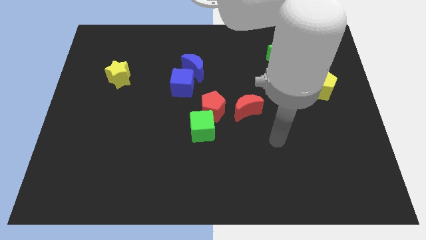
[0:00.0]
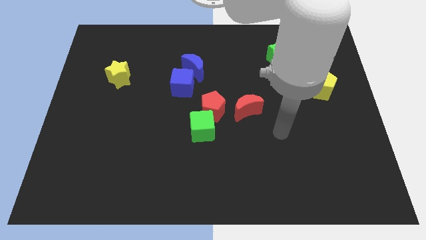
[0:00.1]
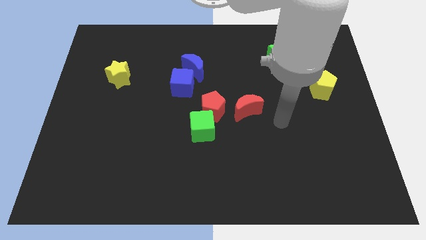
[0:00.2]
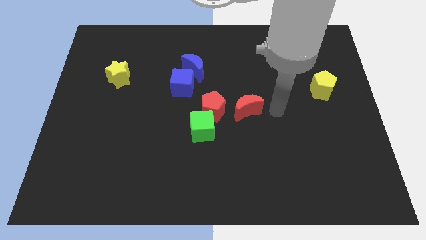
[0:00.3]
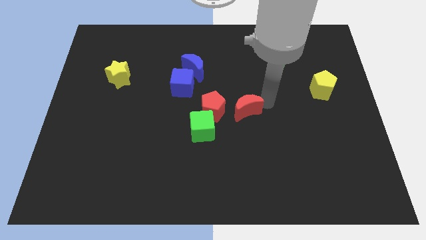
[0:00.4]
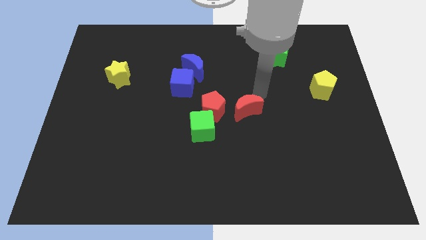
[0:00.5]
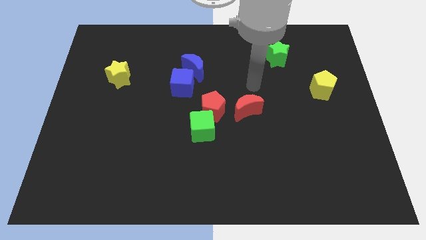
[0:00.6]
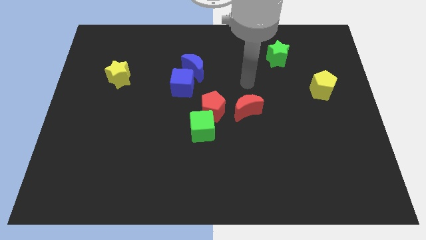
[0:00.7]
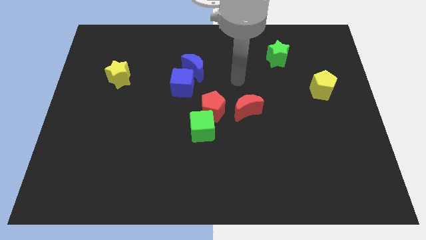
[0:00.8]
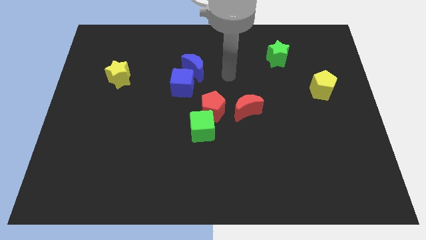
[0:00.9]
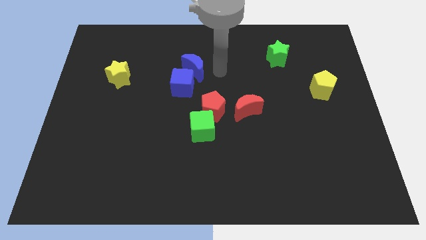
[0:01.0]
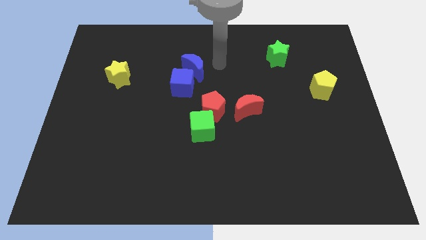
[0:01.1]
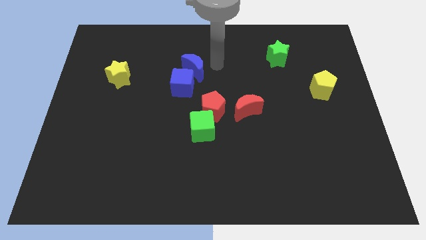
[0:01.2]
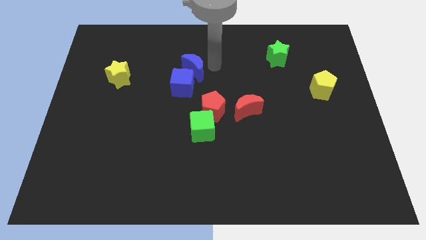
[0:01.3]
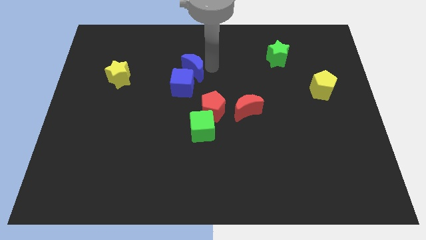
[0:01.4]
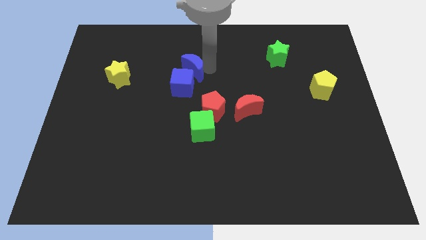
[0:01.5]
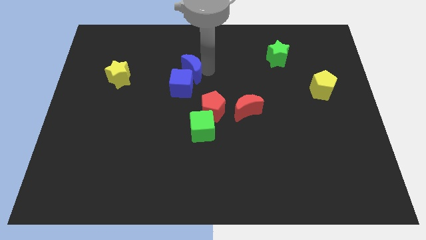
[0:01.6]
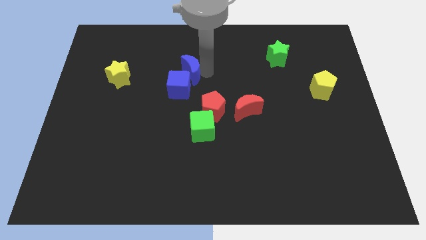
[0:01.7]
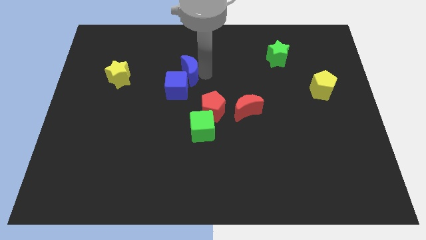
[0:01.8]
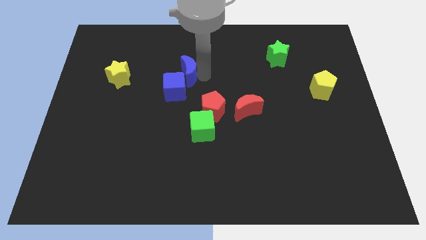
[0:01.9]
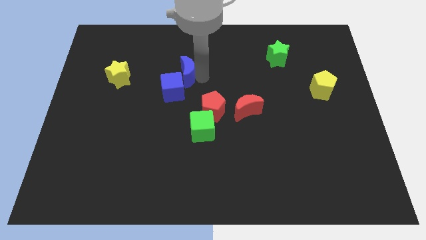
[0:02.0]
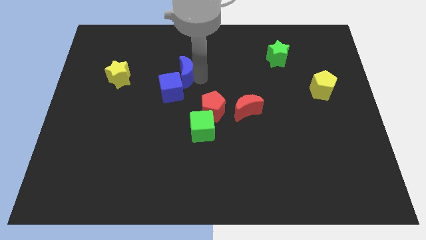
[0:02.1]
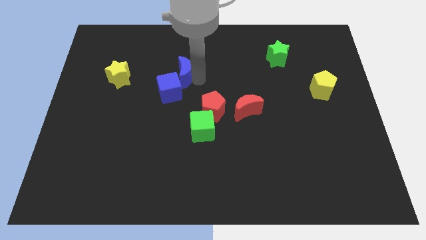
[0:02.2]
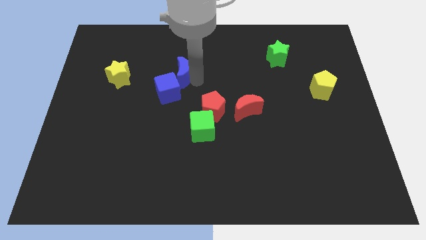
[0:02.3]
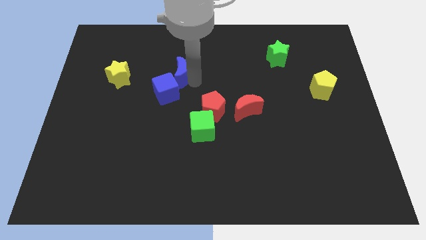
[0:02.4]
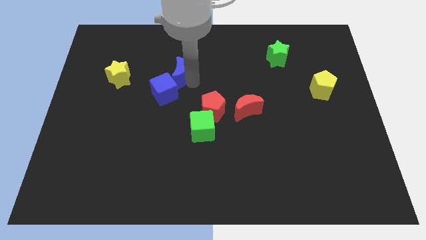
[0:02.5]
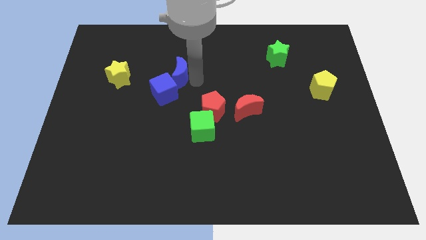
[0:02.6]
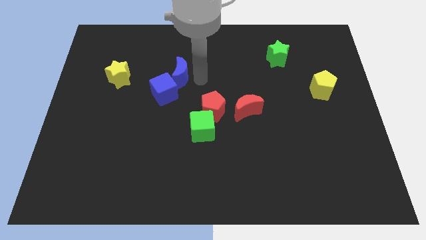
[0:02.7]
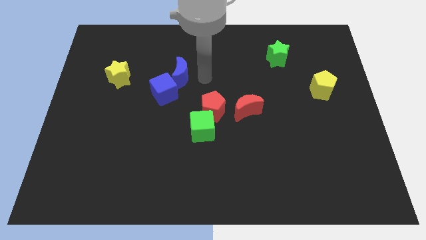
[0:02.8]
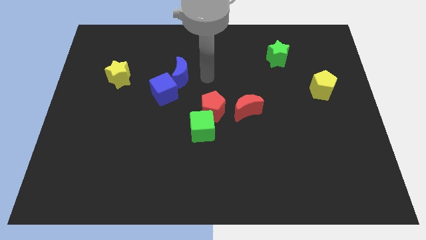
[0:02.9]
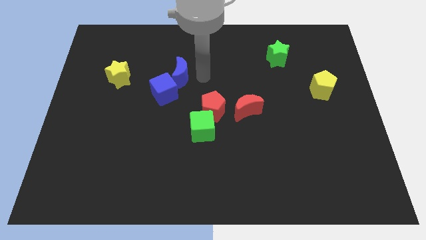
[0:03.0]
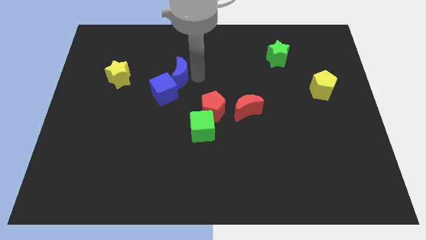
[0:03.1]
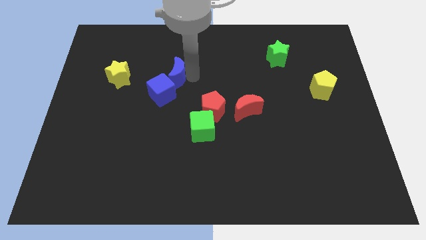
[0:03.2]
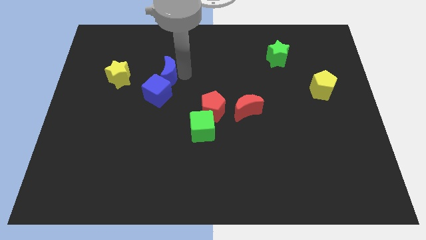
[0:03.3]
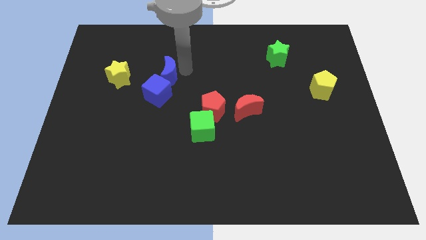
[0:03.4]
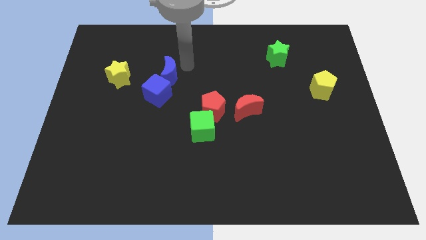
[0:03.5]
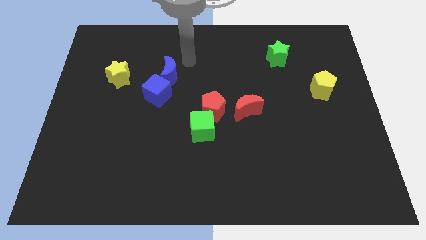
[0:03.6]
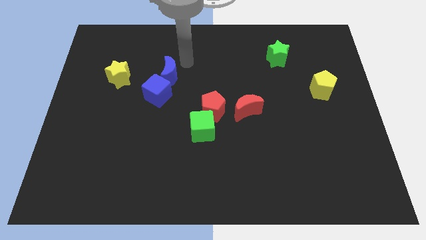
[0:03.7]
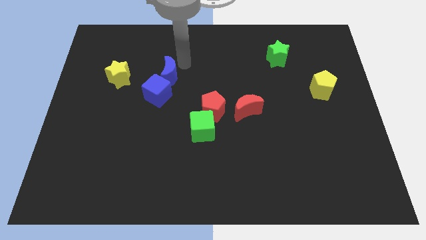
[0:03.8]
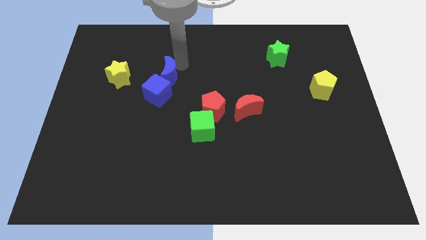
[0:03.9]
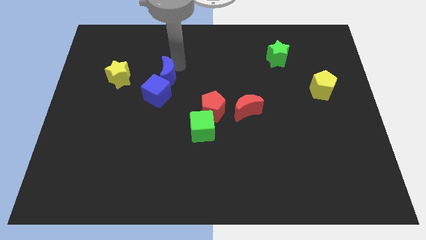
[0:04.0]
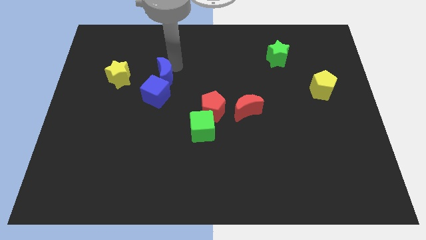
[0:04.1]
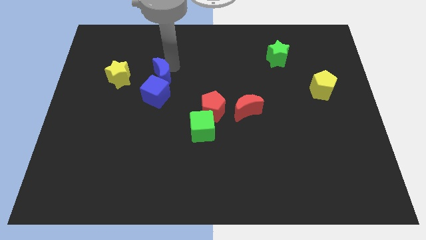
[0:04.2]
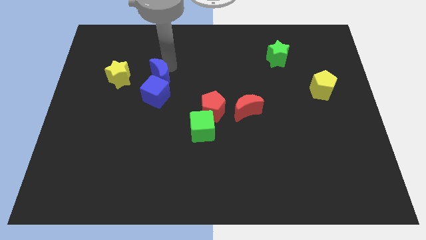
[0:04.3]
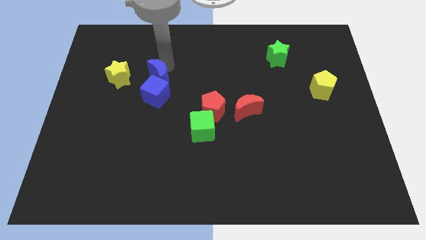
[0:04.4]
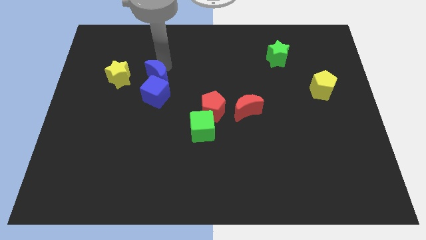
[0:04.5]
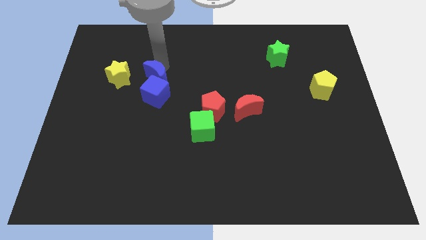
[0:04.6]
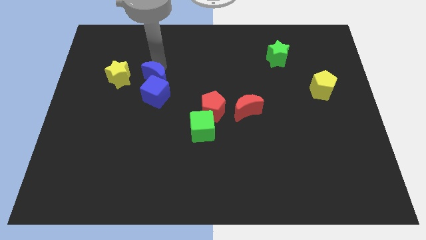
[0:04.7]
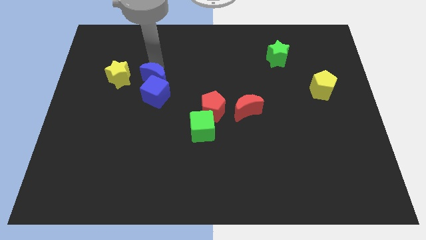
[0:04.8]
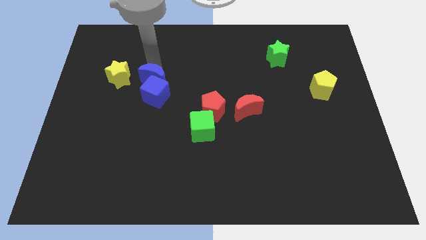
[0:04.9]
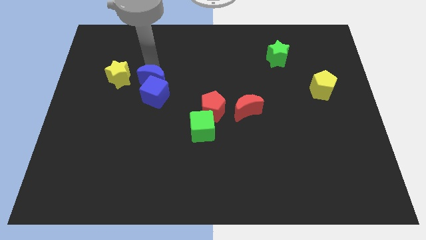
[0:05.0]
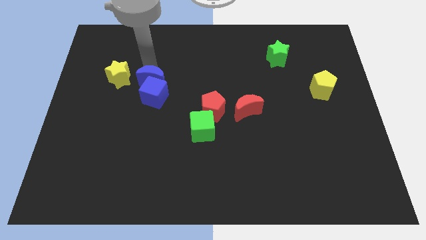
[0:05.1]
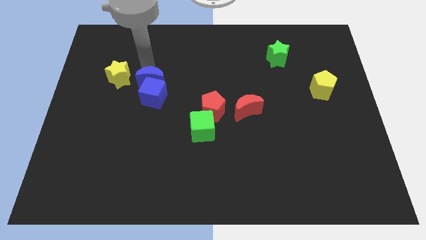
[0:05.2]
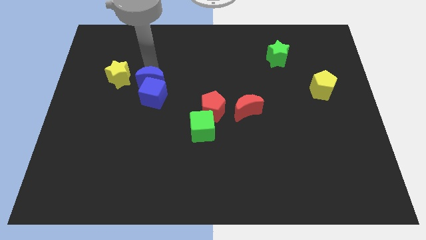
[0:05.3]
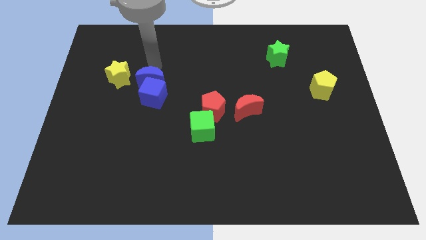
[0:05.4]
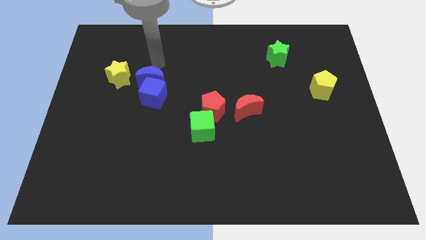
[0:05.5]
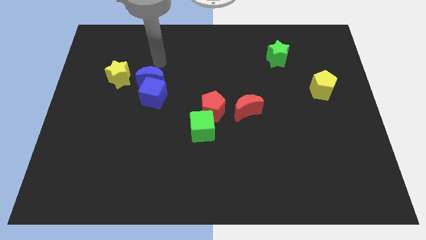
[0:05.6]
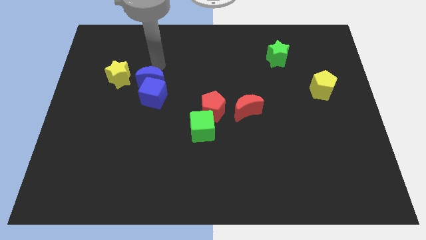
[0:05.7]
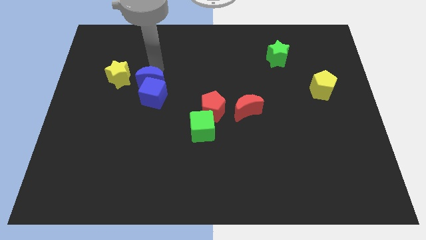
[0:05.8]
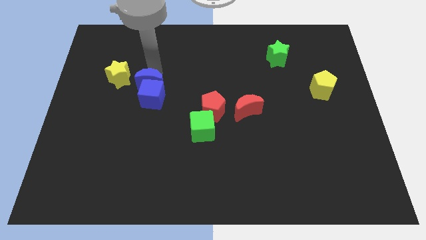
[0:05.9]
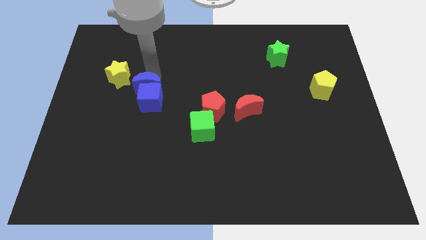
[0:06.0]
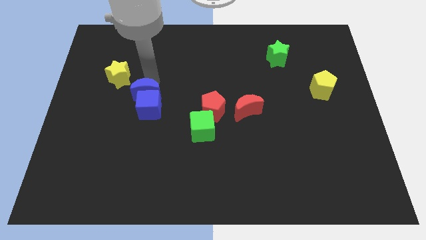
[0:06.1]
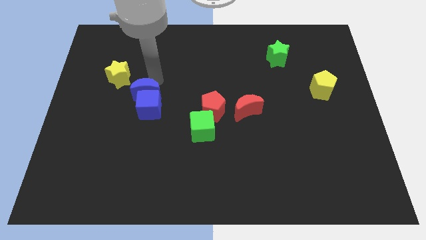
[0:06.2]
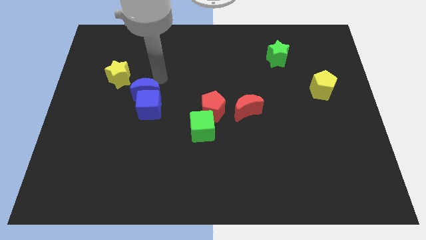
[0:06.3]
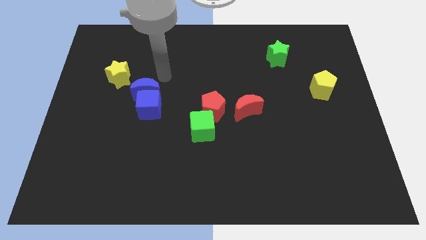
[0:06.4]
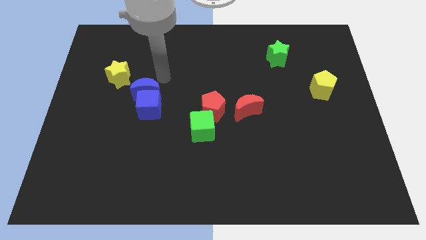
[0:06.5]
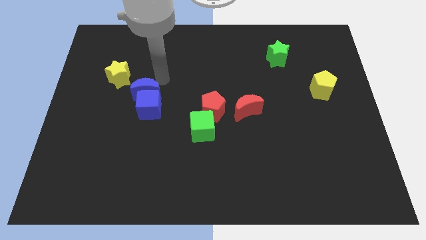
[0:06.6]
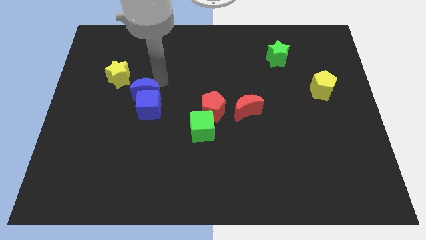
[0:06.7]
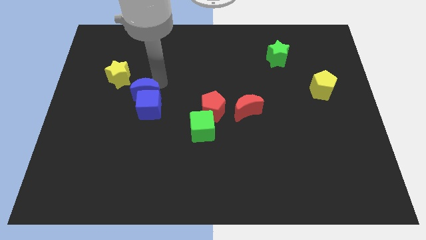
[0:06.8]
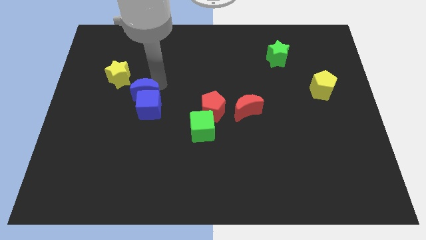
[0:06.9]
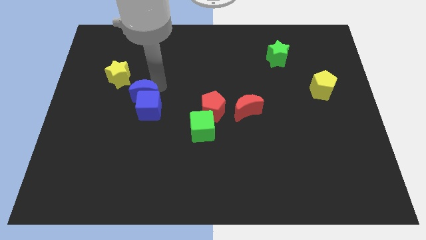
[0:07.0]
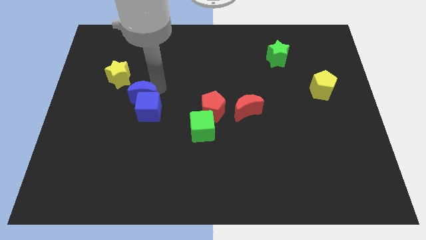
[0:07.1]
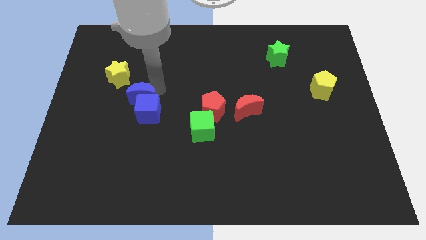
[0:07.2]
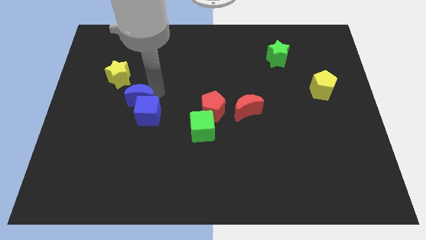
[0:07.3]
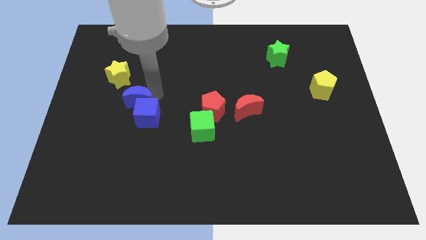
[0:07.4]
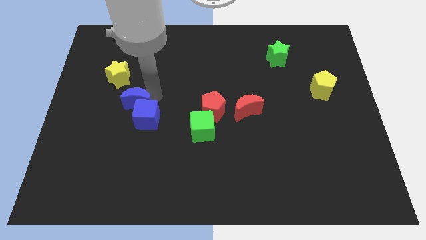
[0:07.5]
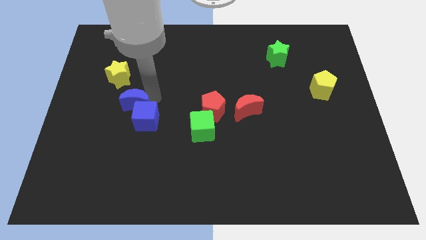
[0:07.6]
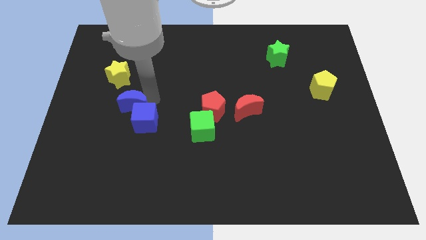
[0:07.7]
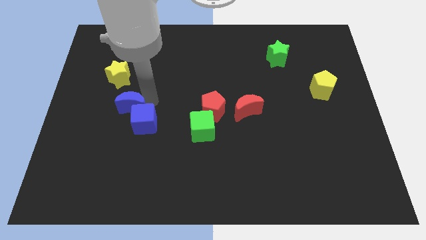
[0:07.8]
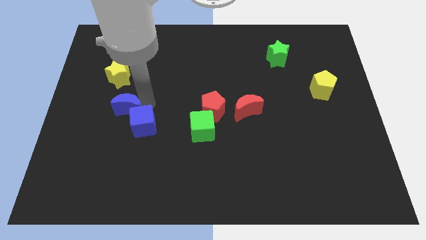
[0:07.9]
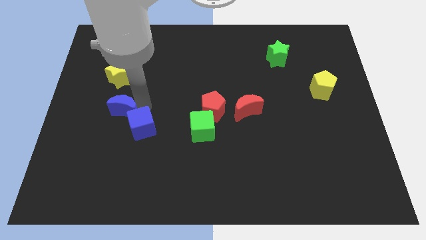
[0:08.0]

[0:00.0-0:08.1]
push the blue moon downwards and then left

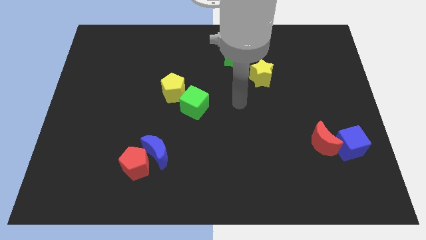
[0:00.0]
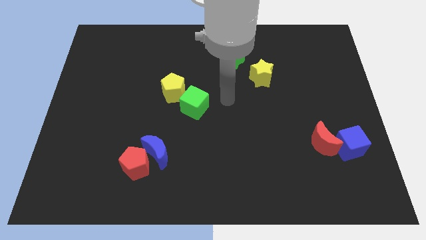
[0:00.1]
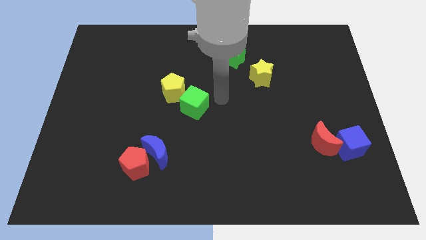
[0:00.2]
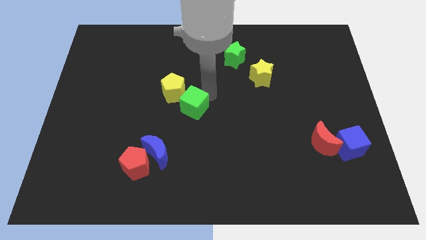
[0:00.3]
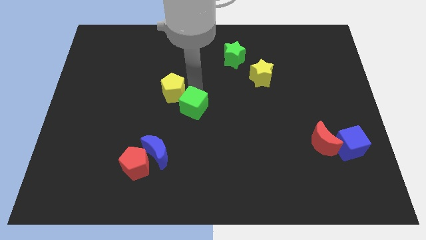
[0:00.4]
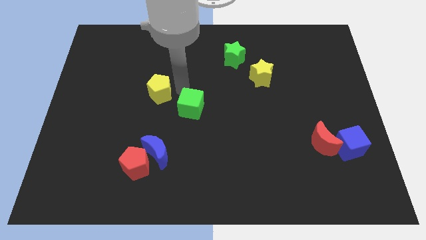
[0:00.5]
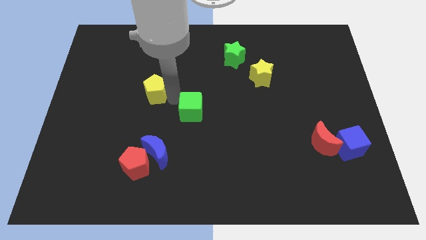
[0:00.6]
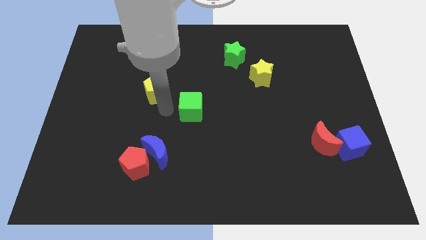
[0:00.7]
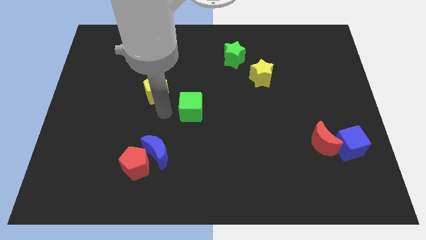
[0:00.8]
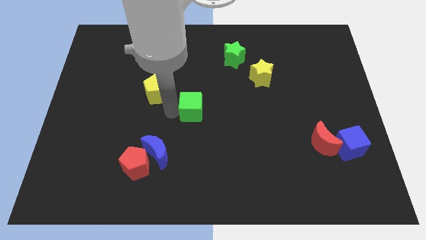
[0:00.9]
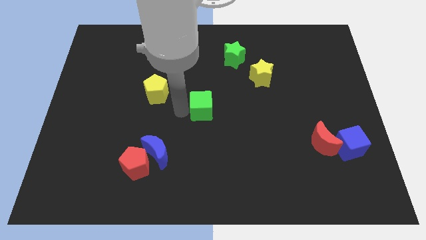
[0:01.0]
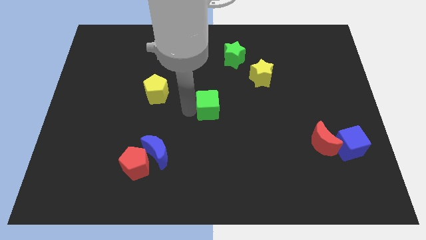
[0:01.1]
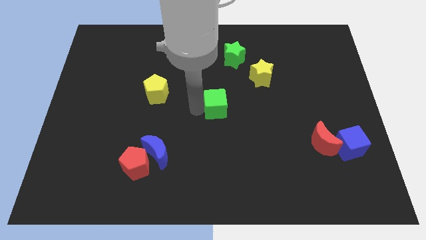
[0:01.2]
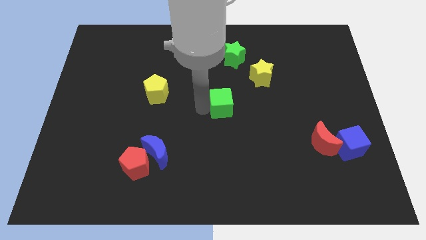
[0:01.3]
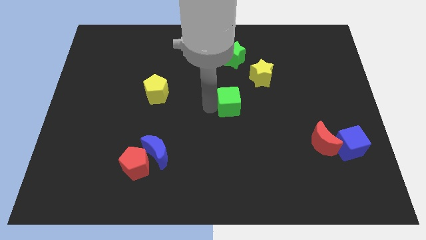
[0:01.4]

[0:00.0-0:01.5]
slide the green cube right somewhat
